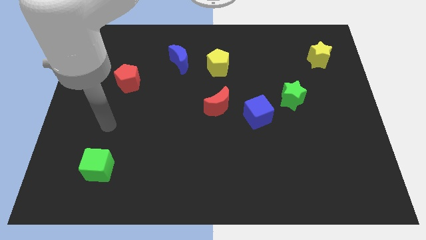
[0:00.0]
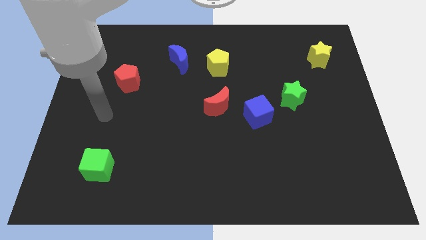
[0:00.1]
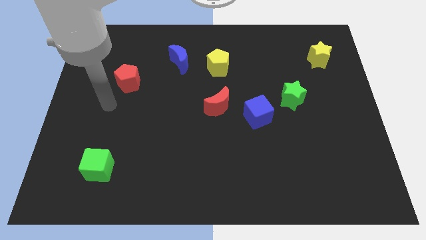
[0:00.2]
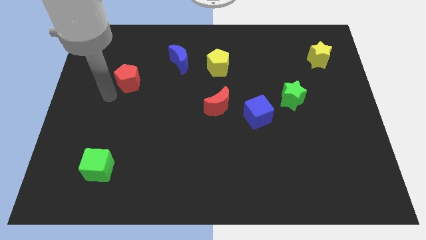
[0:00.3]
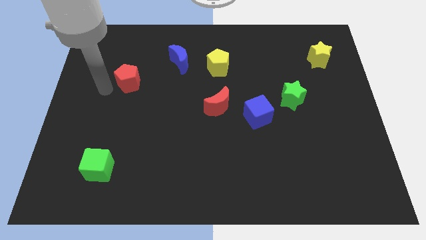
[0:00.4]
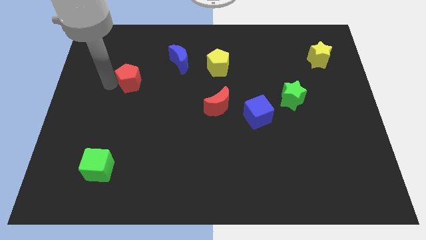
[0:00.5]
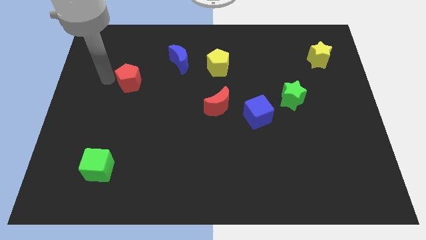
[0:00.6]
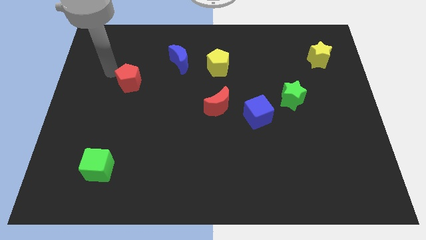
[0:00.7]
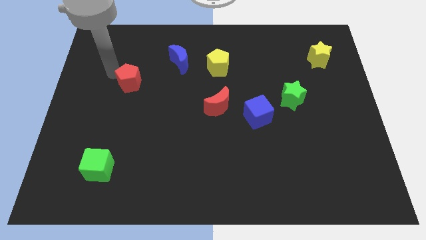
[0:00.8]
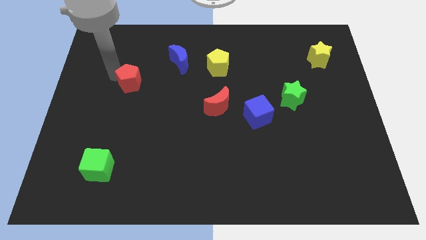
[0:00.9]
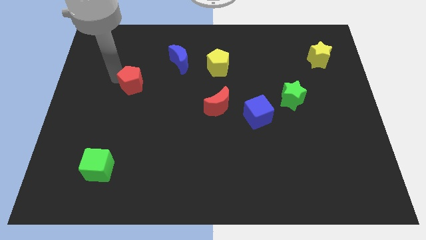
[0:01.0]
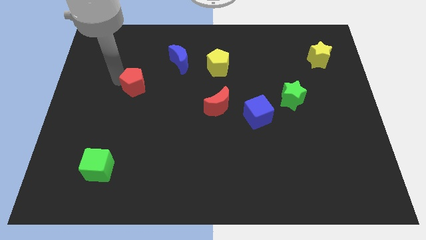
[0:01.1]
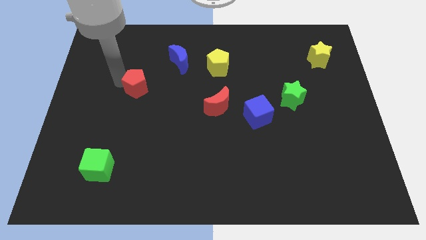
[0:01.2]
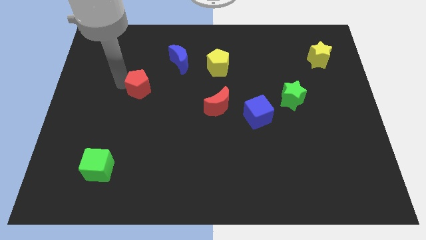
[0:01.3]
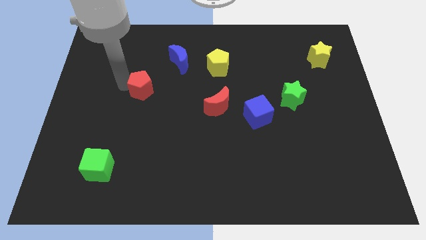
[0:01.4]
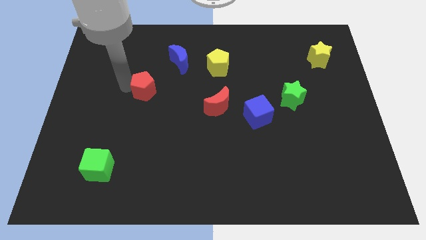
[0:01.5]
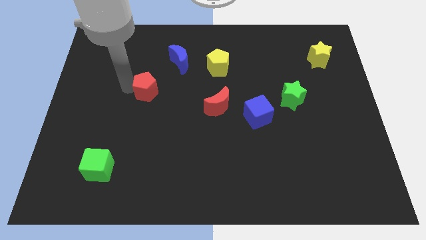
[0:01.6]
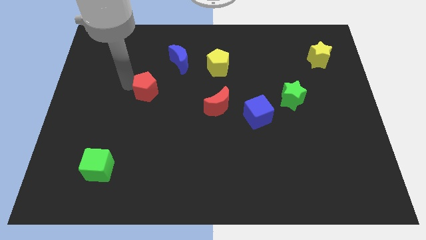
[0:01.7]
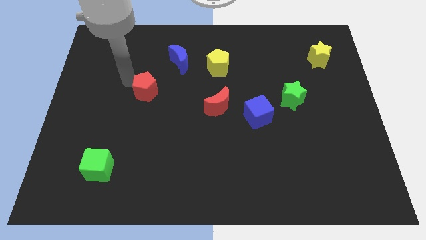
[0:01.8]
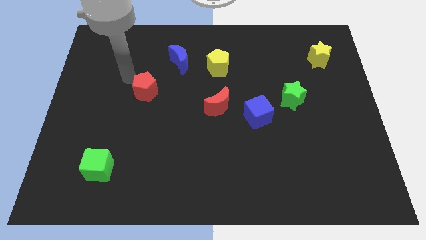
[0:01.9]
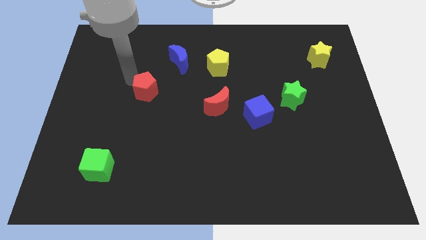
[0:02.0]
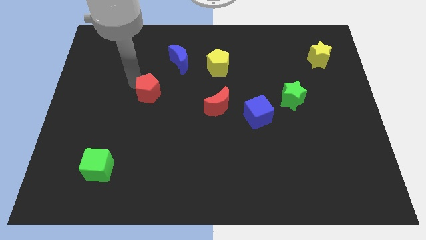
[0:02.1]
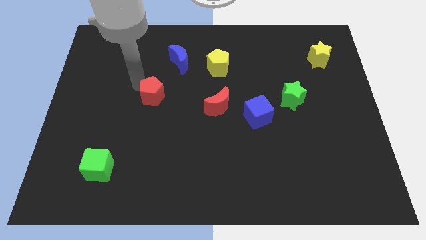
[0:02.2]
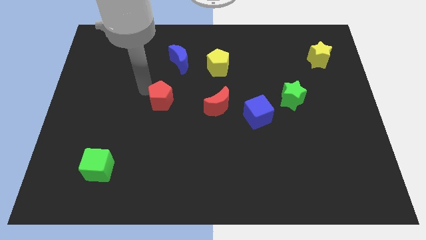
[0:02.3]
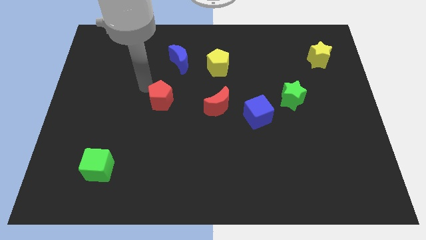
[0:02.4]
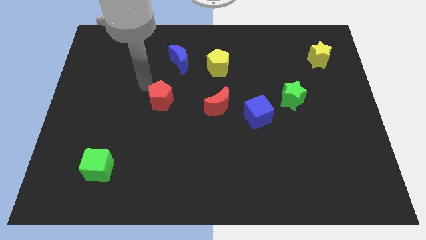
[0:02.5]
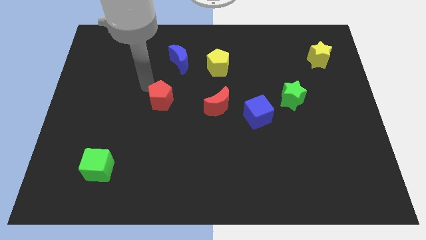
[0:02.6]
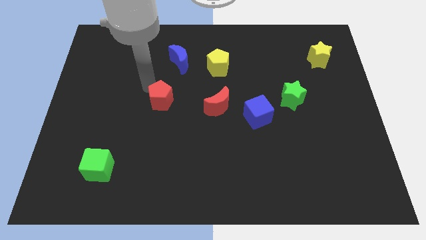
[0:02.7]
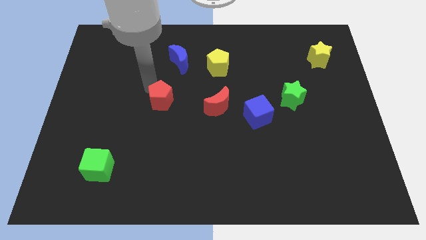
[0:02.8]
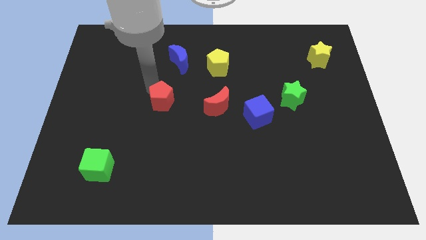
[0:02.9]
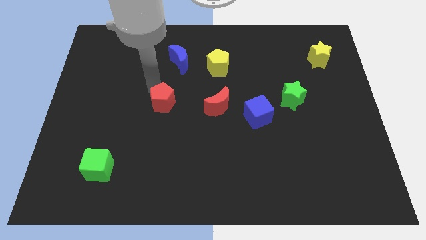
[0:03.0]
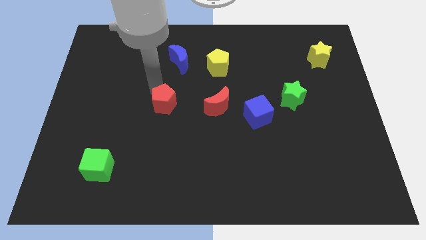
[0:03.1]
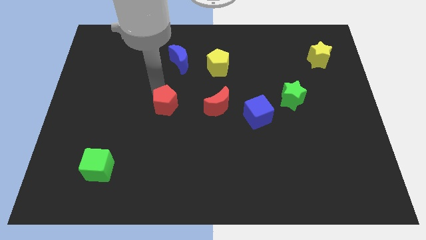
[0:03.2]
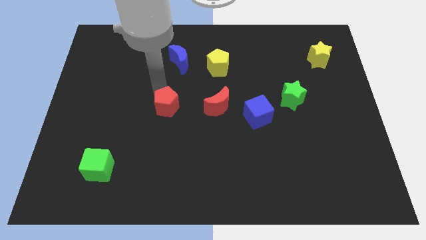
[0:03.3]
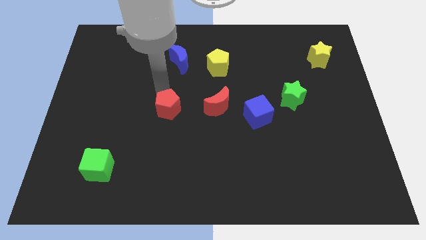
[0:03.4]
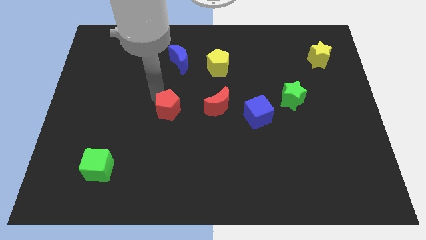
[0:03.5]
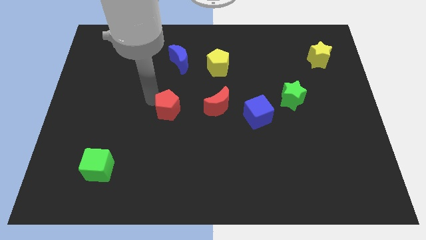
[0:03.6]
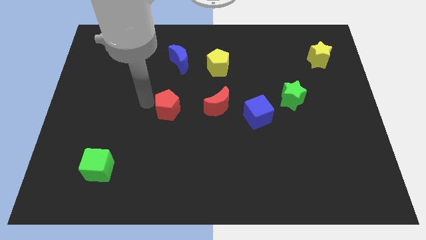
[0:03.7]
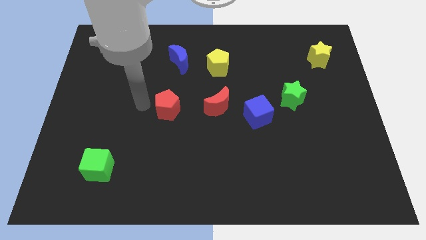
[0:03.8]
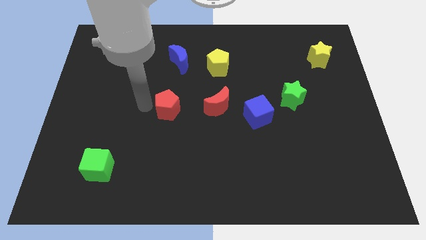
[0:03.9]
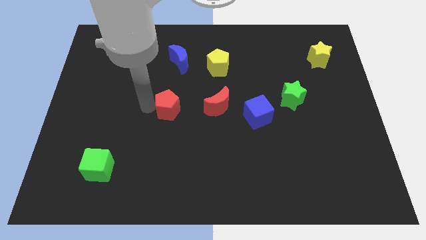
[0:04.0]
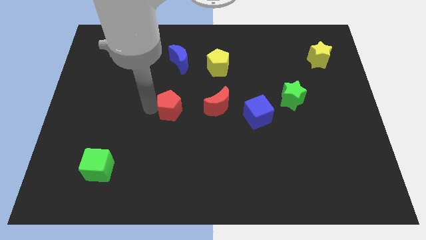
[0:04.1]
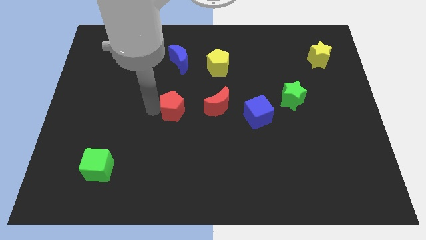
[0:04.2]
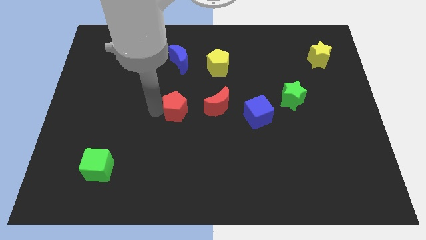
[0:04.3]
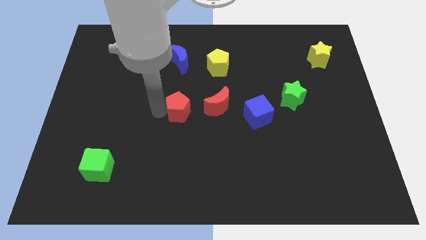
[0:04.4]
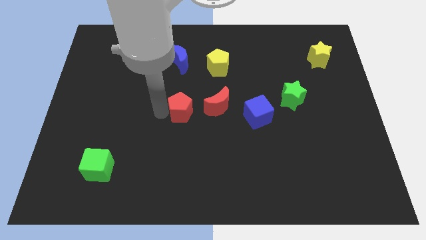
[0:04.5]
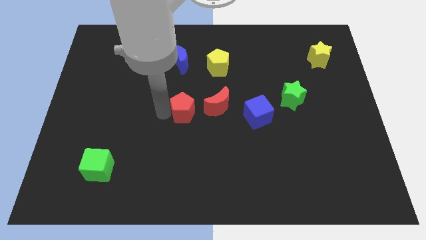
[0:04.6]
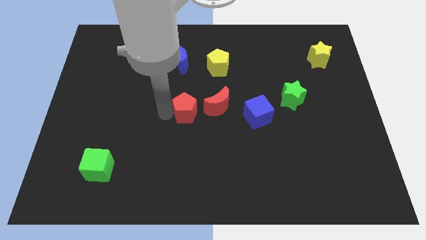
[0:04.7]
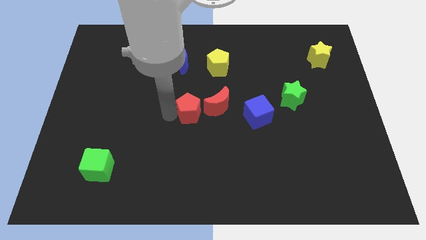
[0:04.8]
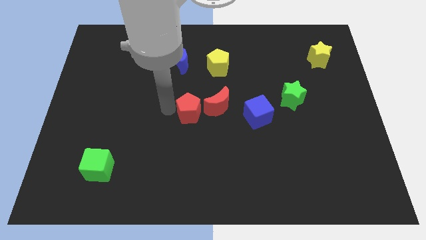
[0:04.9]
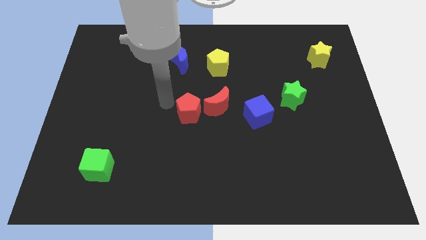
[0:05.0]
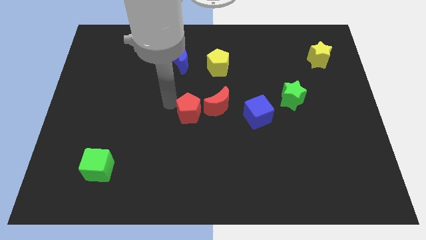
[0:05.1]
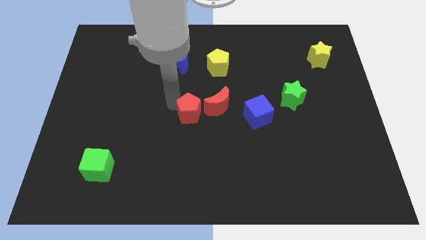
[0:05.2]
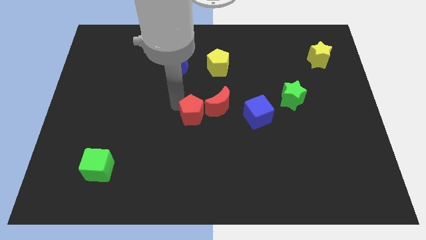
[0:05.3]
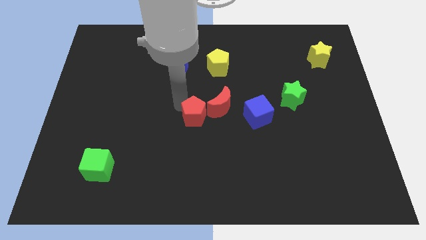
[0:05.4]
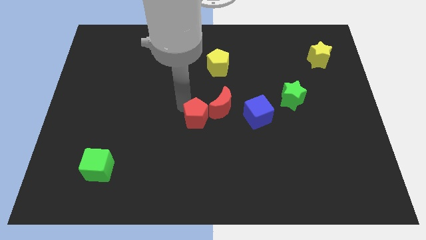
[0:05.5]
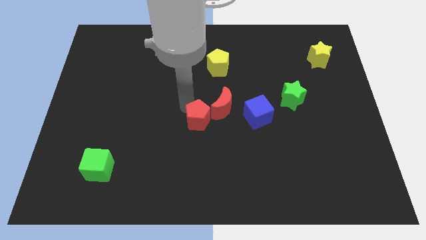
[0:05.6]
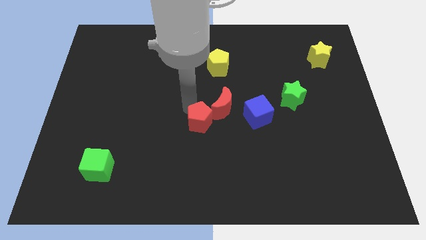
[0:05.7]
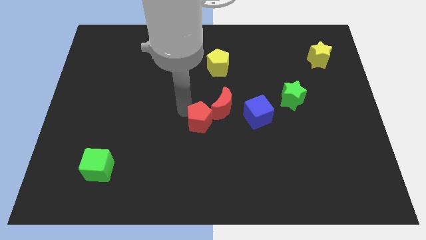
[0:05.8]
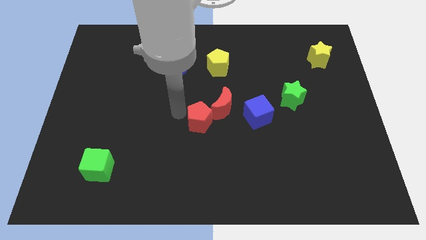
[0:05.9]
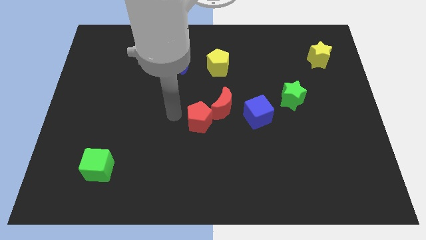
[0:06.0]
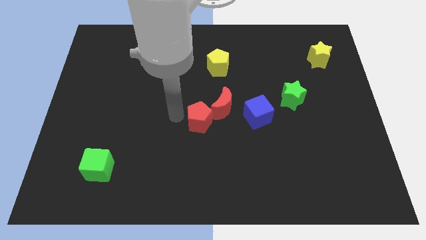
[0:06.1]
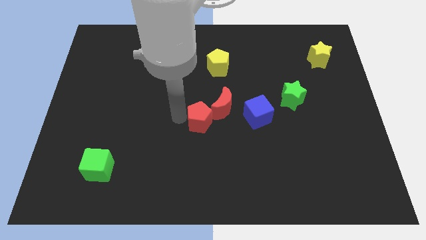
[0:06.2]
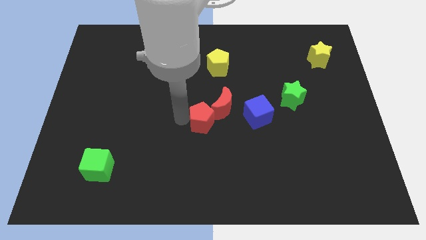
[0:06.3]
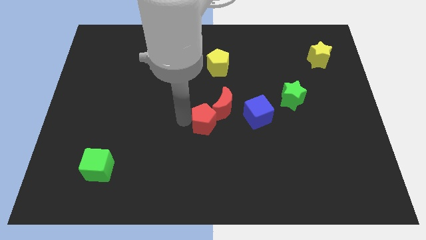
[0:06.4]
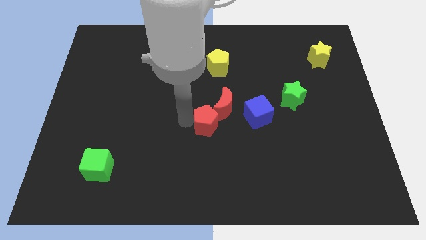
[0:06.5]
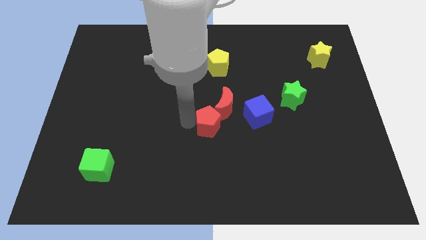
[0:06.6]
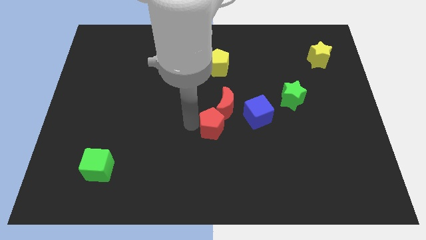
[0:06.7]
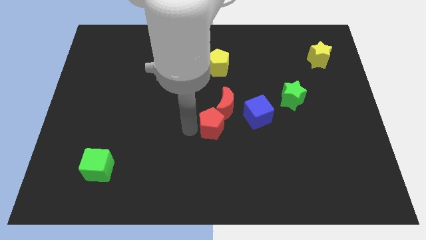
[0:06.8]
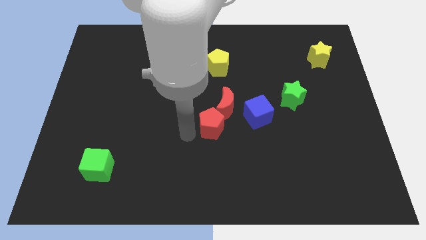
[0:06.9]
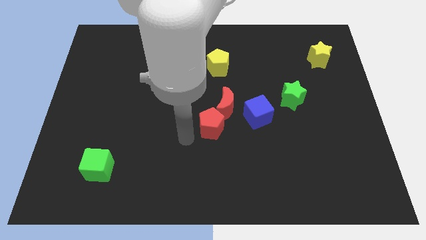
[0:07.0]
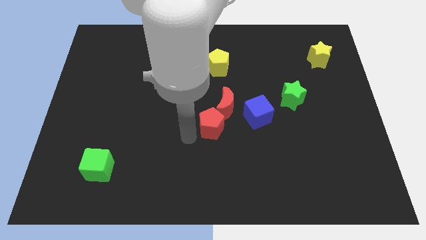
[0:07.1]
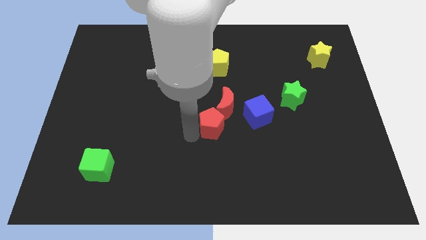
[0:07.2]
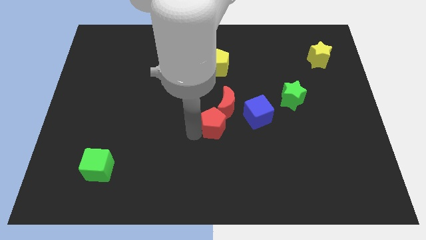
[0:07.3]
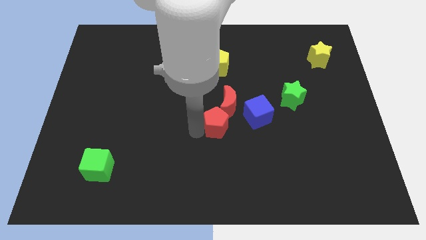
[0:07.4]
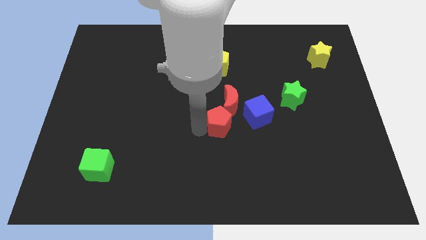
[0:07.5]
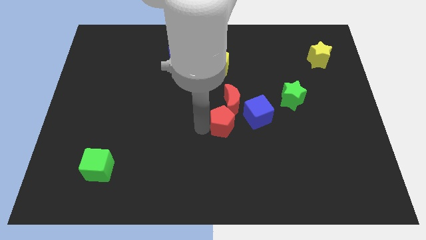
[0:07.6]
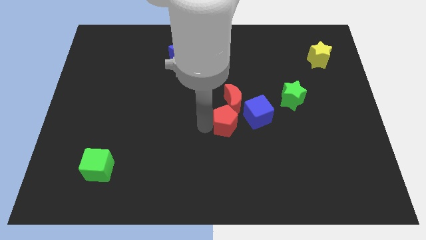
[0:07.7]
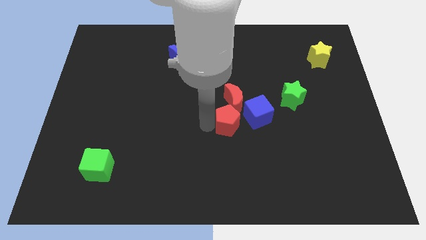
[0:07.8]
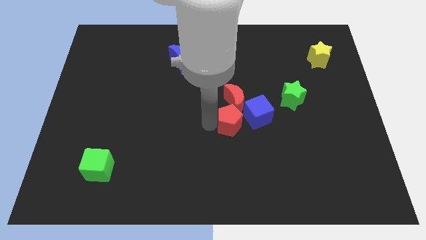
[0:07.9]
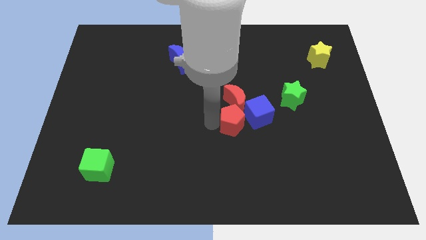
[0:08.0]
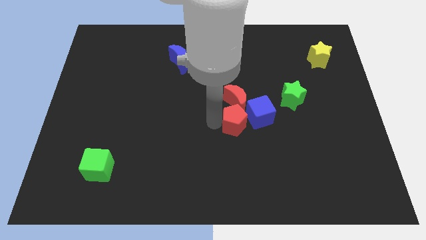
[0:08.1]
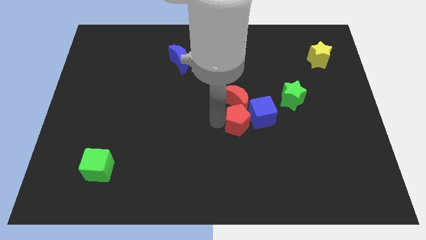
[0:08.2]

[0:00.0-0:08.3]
push the red pentagon close to the blue cube
